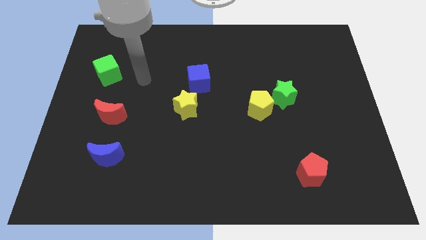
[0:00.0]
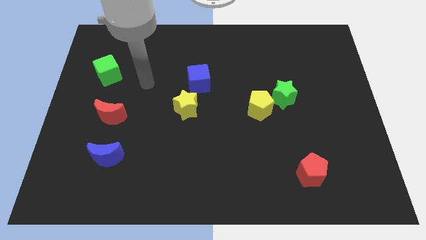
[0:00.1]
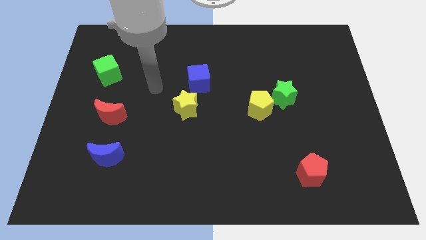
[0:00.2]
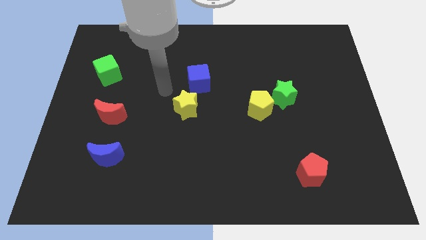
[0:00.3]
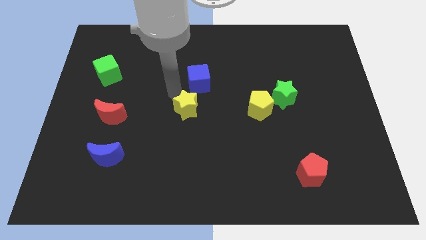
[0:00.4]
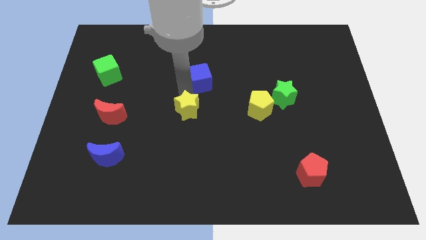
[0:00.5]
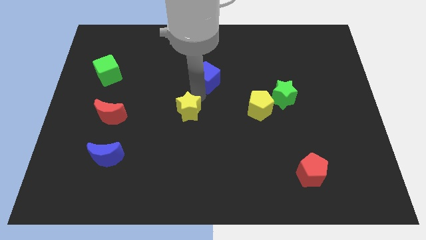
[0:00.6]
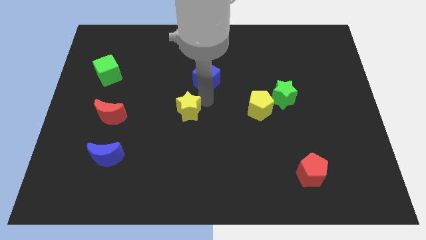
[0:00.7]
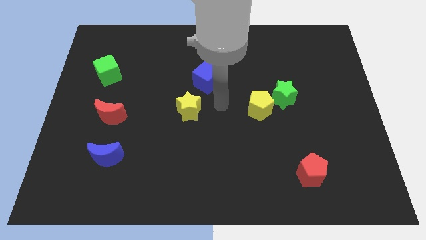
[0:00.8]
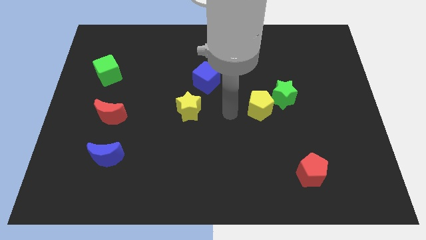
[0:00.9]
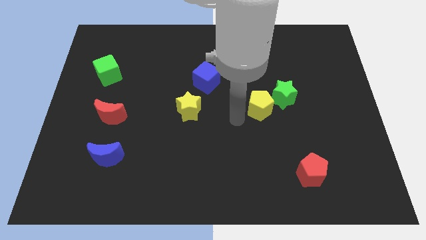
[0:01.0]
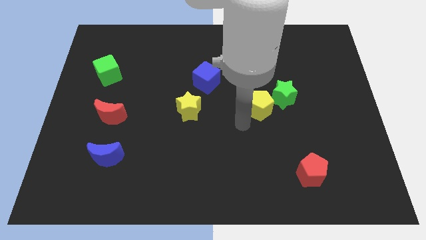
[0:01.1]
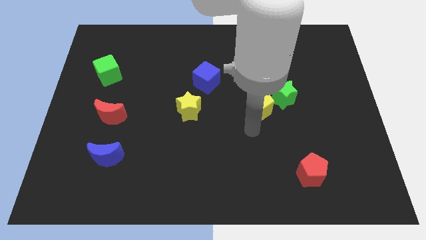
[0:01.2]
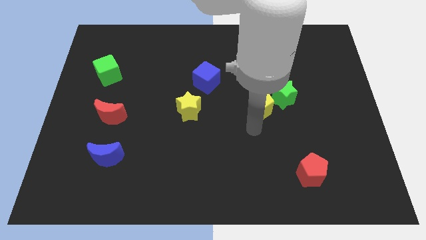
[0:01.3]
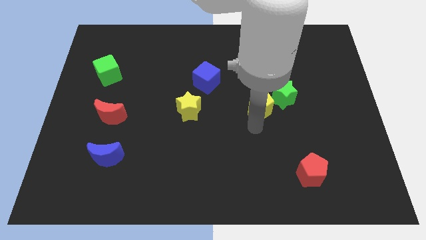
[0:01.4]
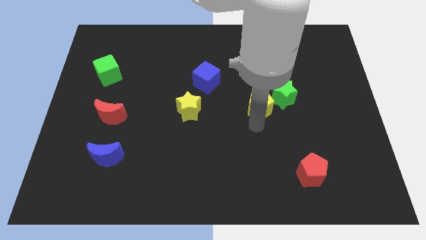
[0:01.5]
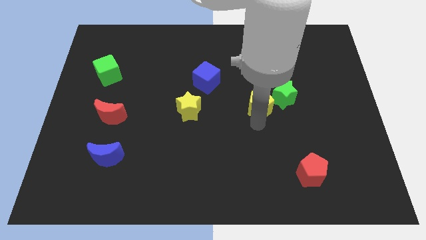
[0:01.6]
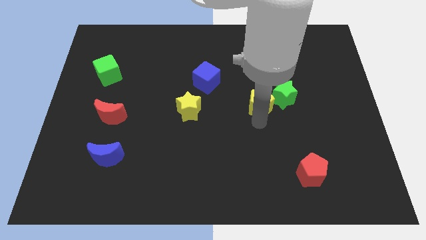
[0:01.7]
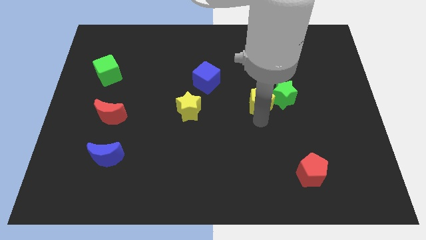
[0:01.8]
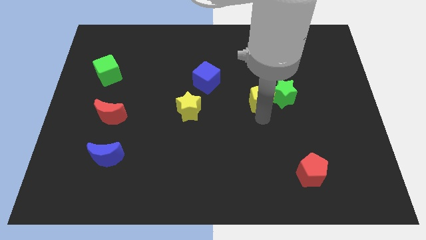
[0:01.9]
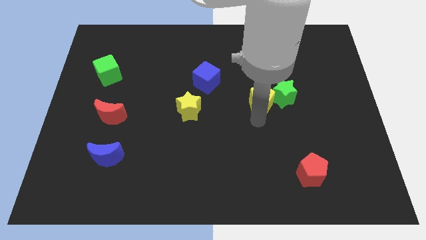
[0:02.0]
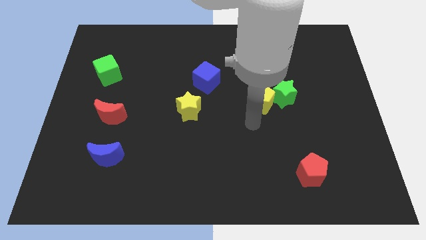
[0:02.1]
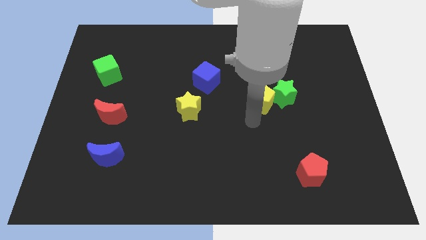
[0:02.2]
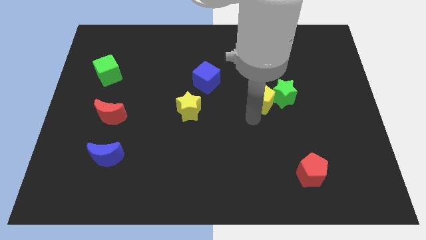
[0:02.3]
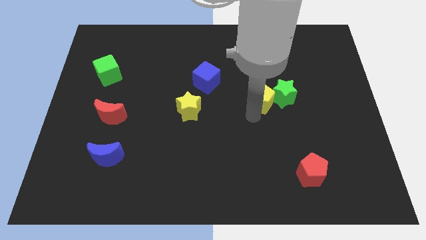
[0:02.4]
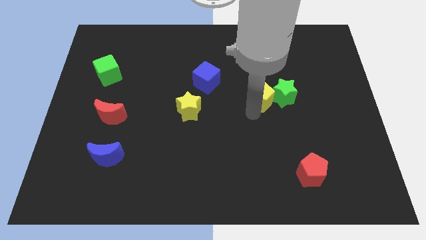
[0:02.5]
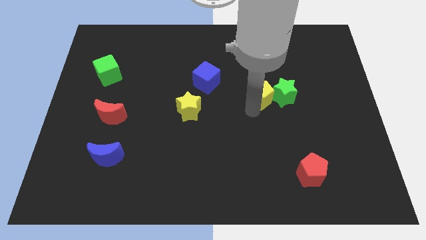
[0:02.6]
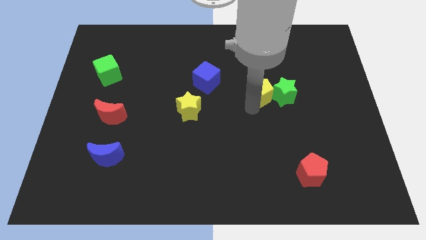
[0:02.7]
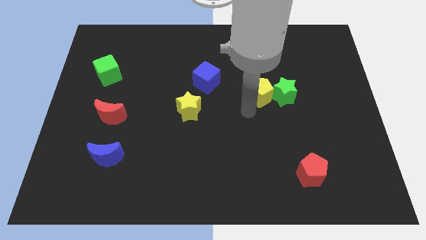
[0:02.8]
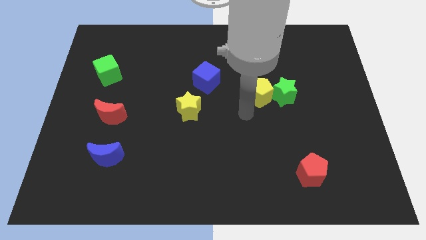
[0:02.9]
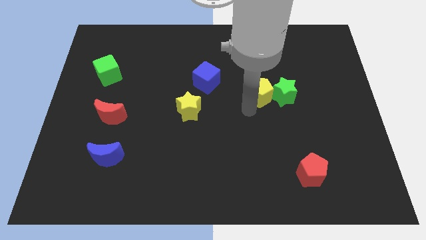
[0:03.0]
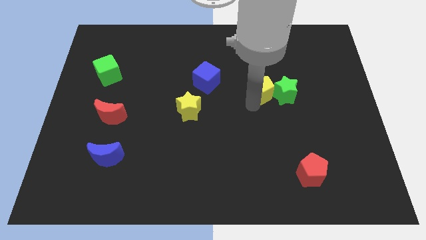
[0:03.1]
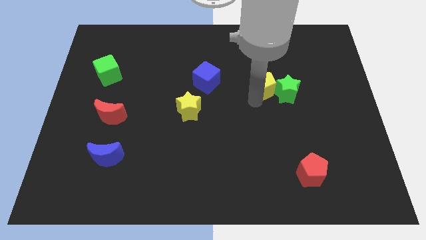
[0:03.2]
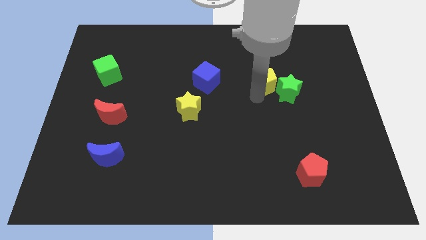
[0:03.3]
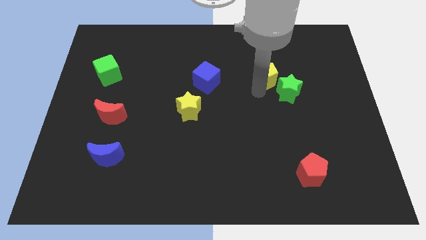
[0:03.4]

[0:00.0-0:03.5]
move the yellow pentagon somewhat upwards and right

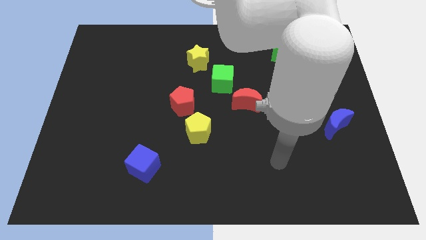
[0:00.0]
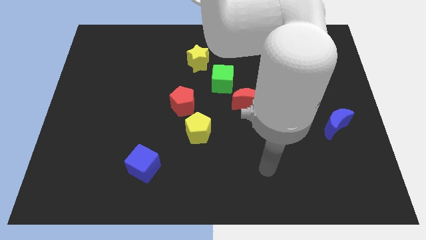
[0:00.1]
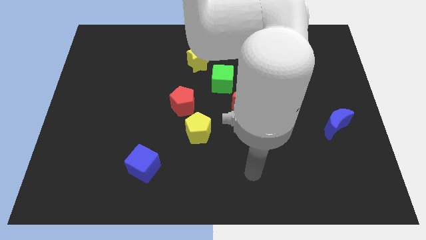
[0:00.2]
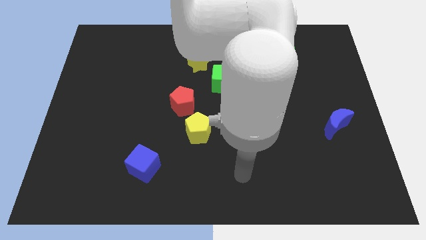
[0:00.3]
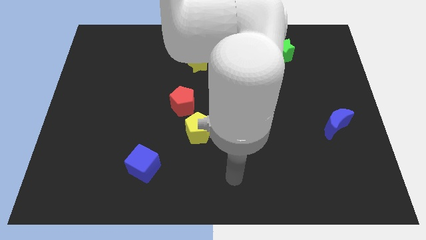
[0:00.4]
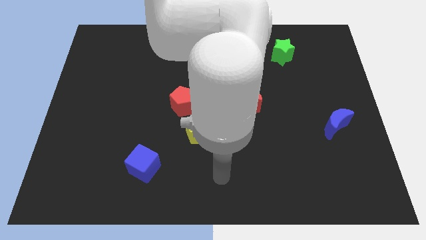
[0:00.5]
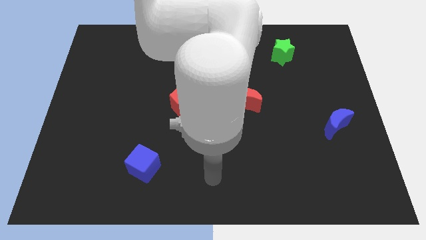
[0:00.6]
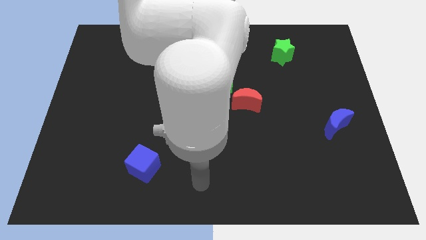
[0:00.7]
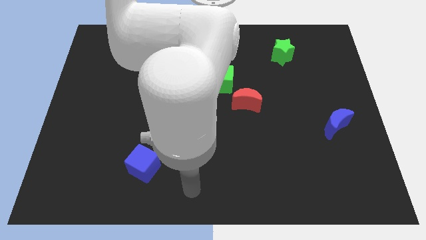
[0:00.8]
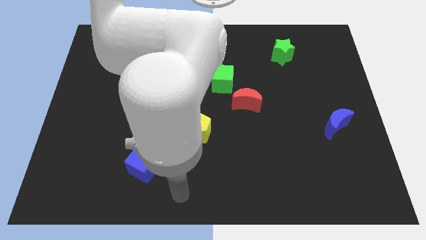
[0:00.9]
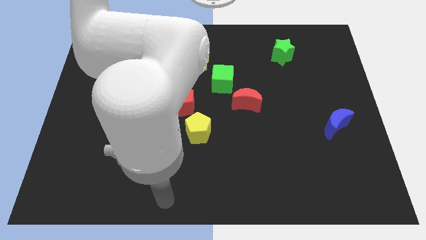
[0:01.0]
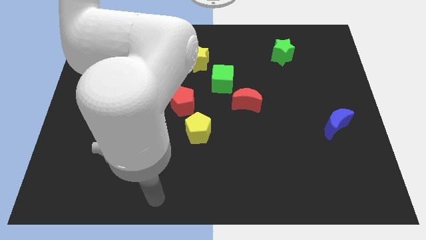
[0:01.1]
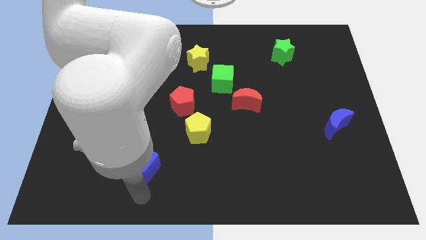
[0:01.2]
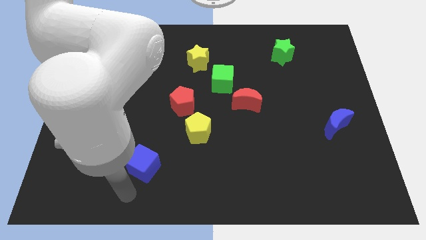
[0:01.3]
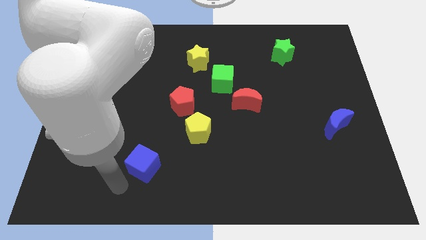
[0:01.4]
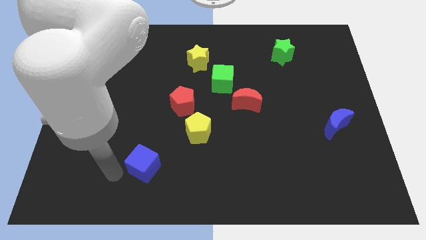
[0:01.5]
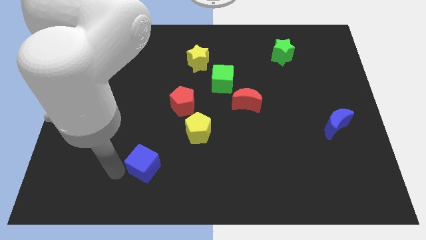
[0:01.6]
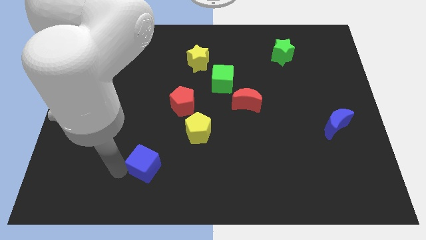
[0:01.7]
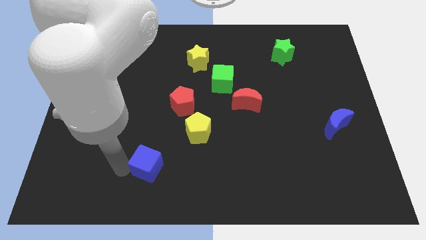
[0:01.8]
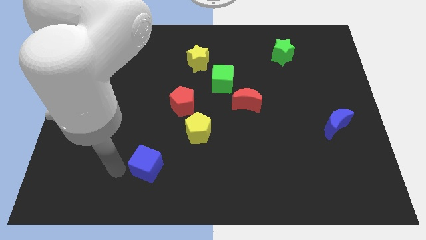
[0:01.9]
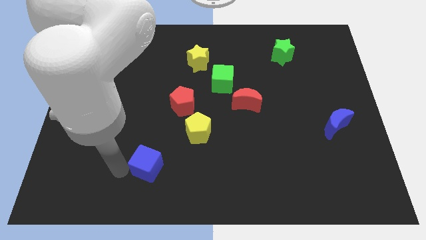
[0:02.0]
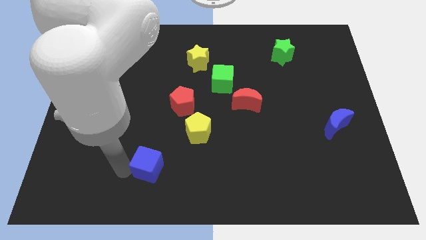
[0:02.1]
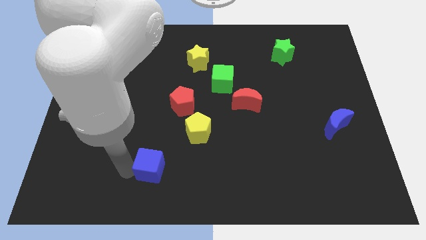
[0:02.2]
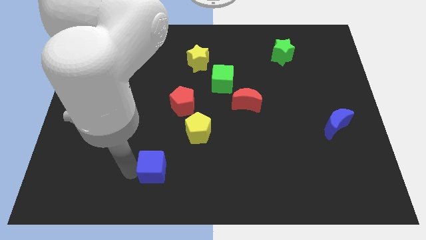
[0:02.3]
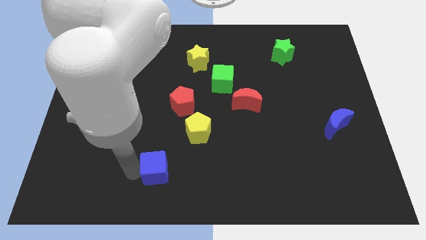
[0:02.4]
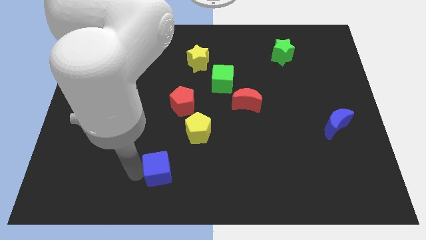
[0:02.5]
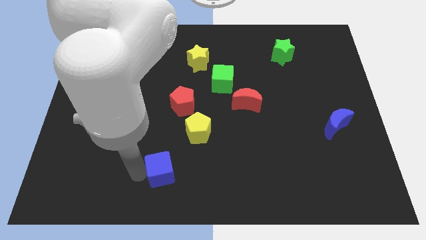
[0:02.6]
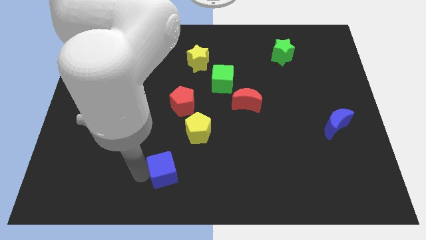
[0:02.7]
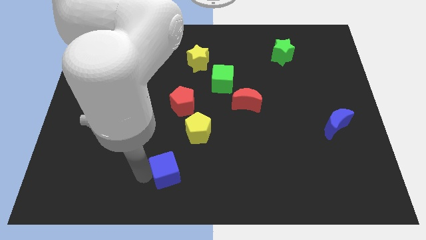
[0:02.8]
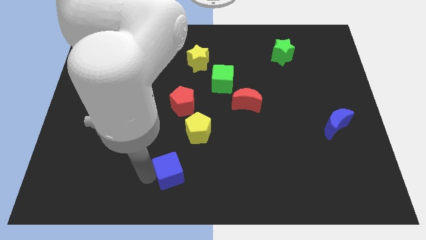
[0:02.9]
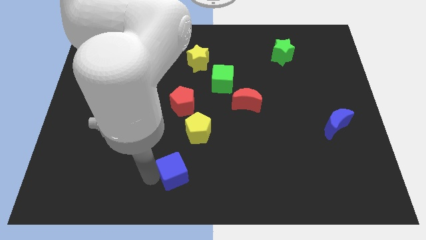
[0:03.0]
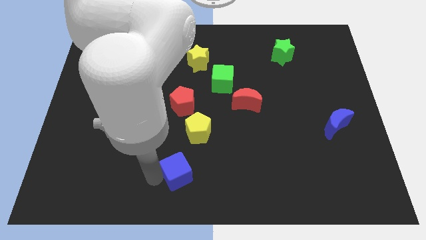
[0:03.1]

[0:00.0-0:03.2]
slide the blue cube a little to the right

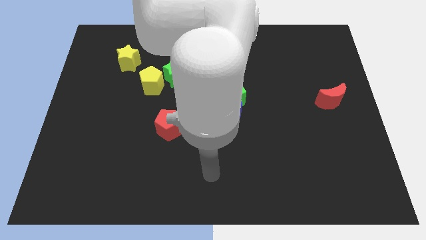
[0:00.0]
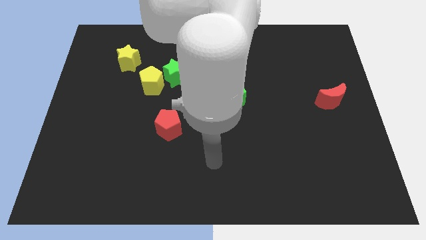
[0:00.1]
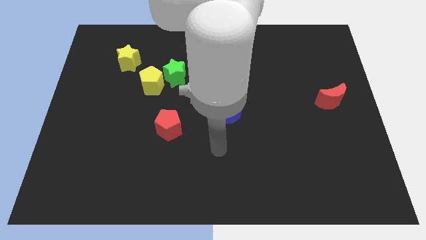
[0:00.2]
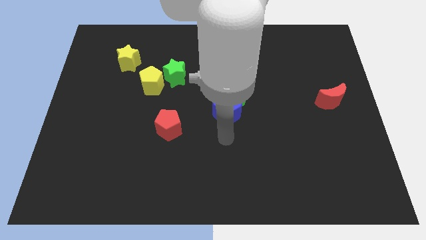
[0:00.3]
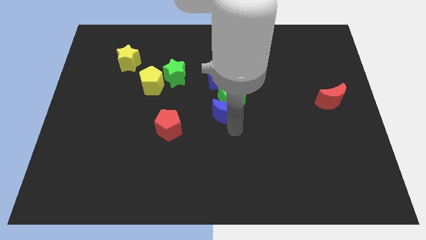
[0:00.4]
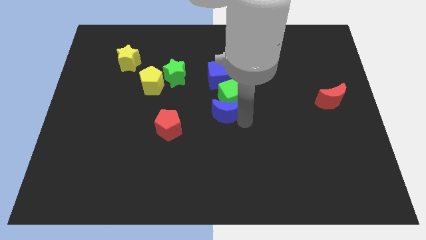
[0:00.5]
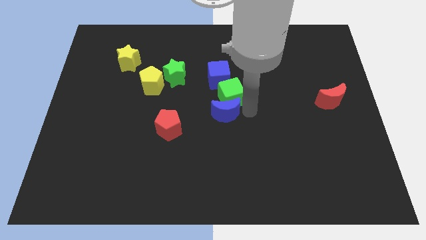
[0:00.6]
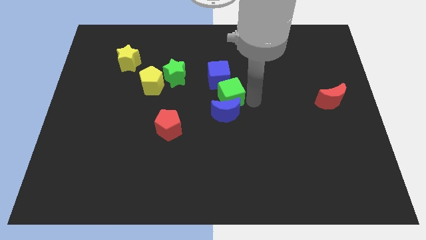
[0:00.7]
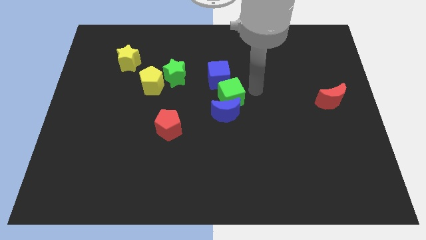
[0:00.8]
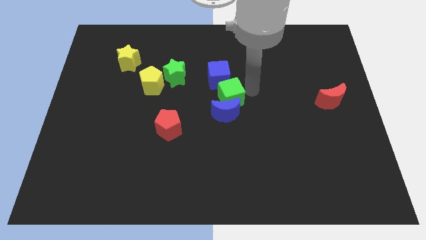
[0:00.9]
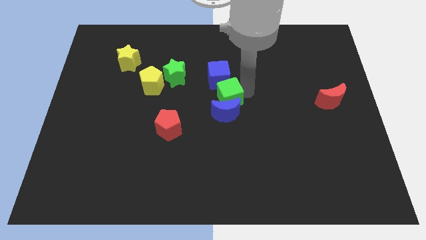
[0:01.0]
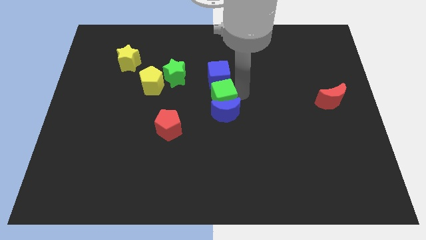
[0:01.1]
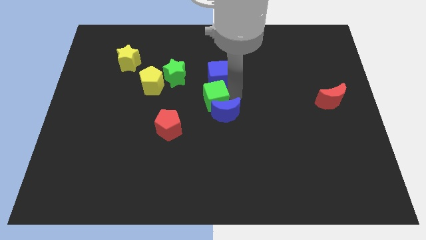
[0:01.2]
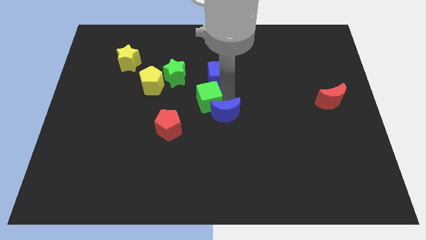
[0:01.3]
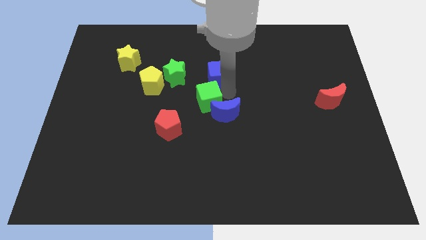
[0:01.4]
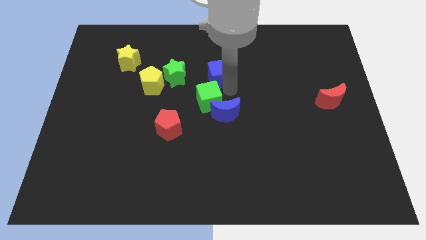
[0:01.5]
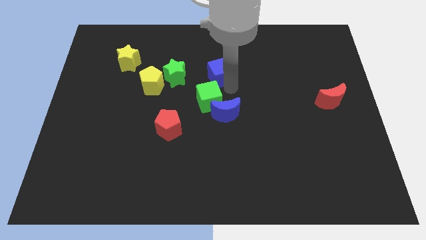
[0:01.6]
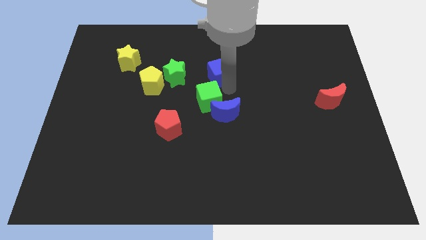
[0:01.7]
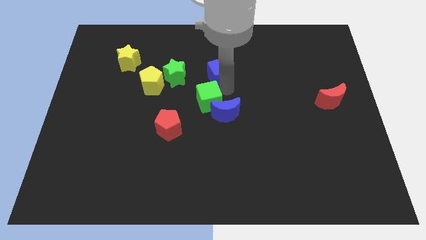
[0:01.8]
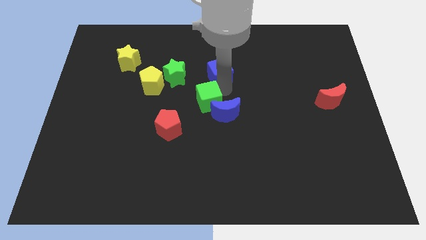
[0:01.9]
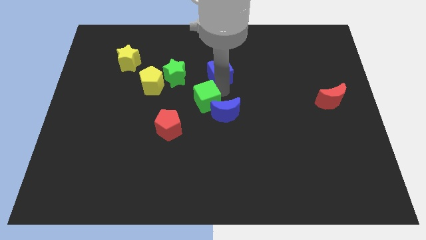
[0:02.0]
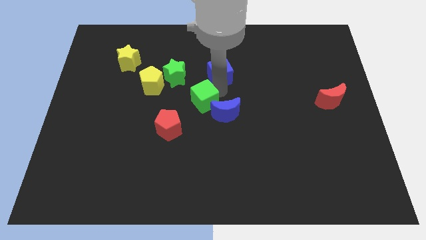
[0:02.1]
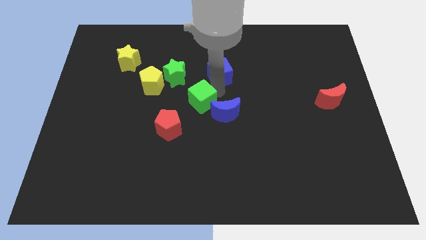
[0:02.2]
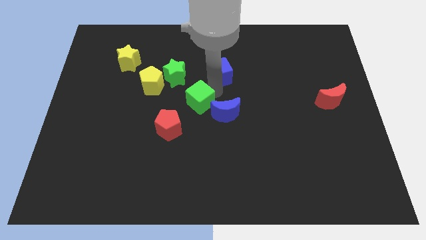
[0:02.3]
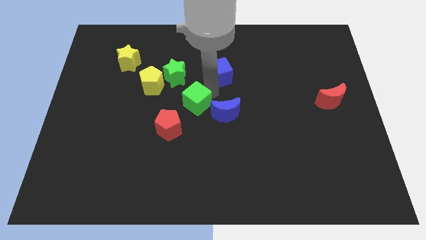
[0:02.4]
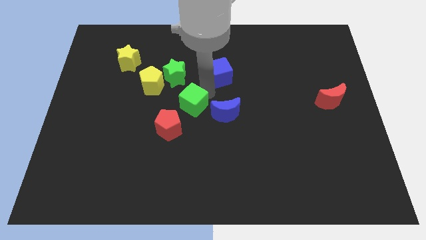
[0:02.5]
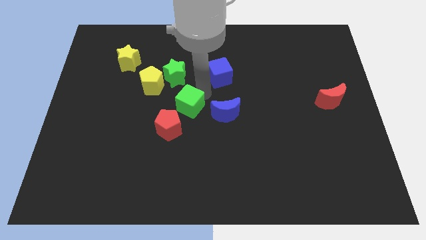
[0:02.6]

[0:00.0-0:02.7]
slide the green cube diagonally downwards and left a little bit
